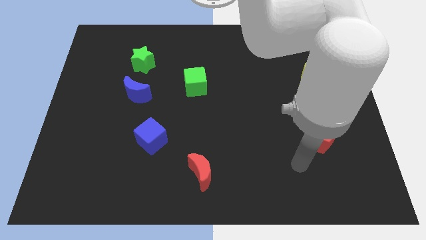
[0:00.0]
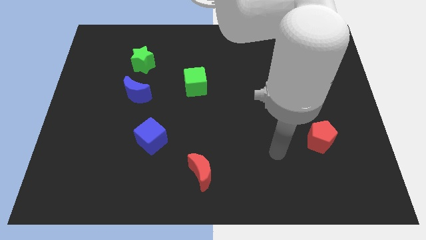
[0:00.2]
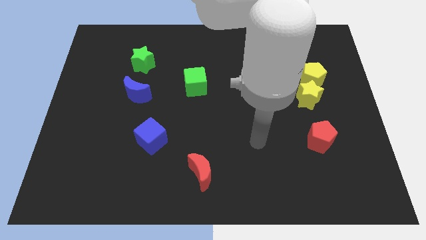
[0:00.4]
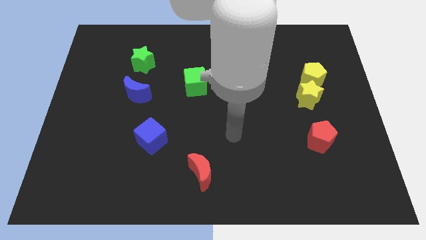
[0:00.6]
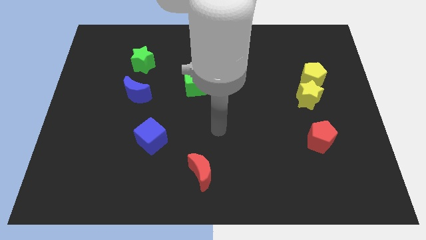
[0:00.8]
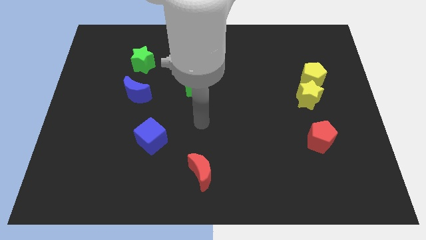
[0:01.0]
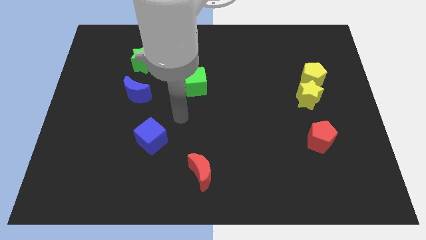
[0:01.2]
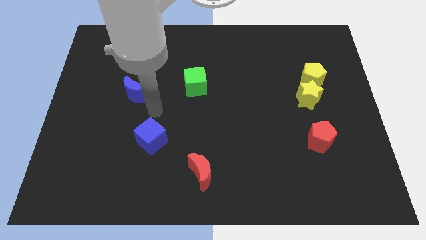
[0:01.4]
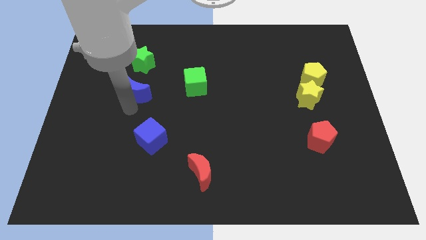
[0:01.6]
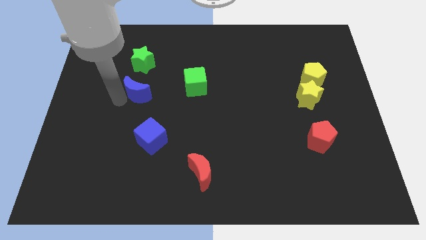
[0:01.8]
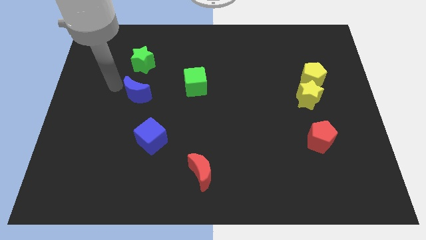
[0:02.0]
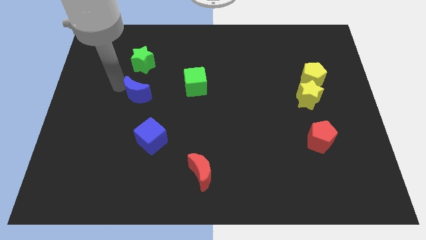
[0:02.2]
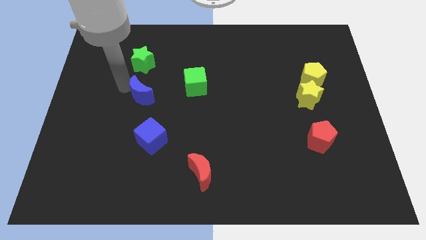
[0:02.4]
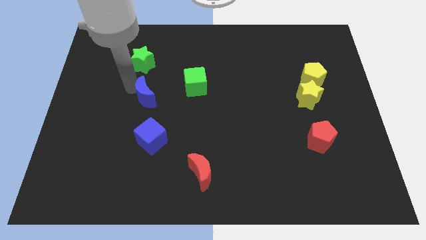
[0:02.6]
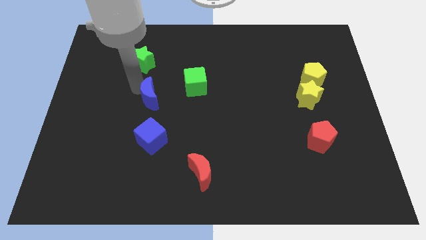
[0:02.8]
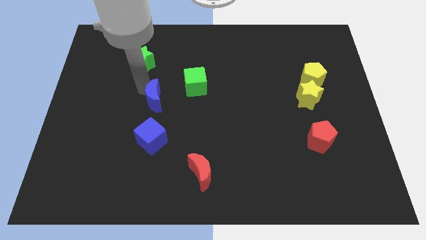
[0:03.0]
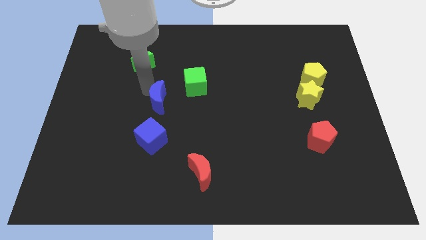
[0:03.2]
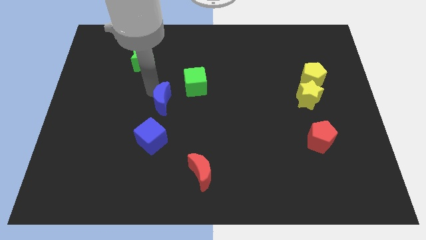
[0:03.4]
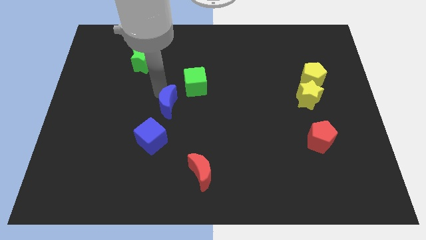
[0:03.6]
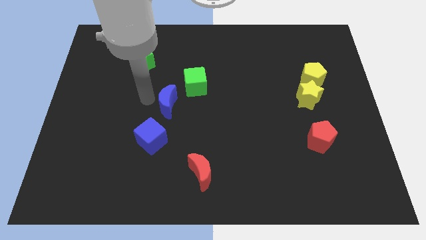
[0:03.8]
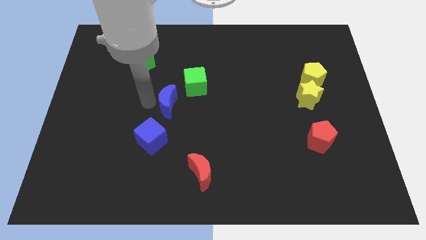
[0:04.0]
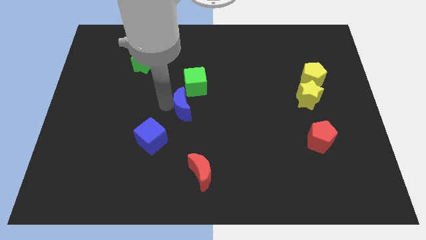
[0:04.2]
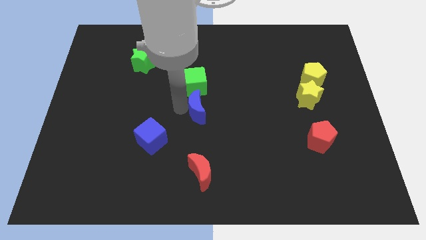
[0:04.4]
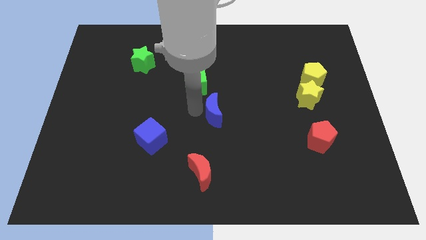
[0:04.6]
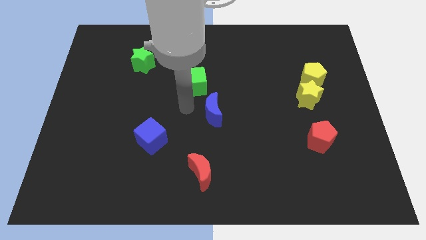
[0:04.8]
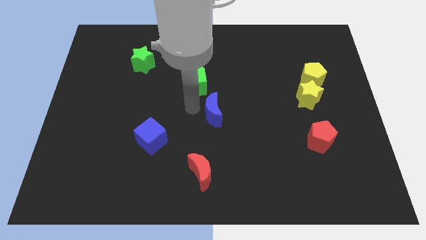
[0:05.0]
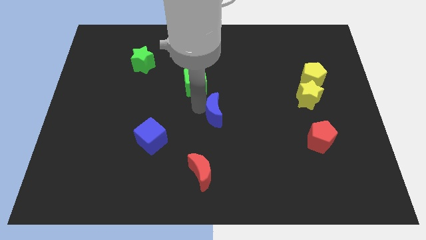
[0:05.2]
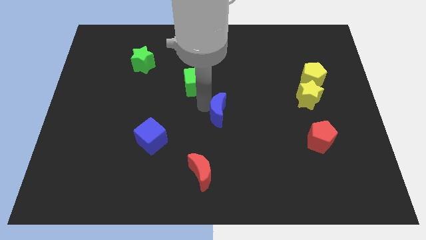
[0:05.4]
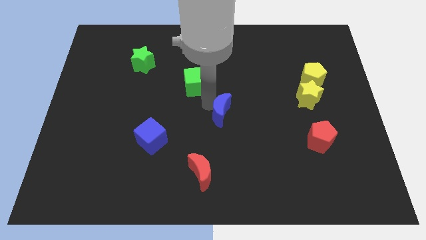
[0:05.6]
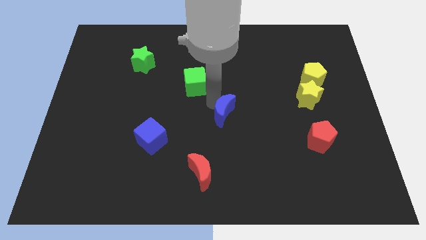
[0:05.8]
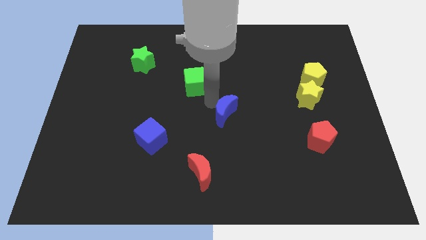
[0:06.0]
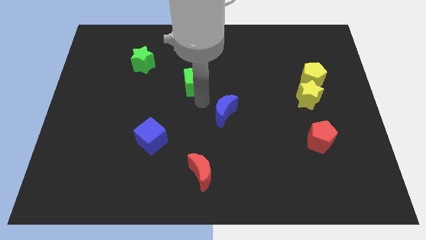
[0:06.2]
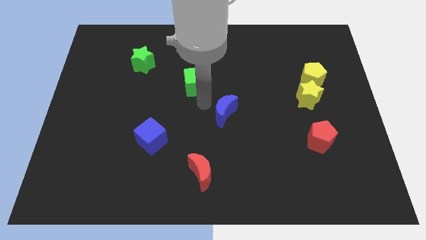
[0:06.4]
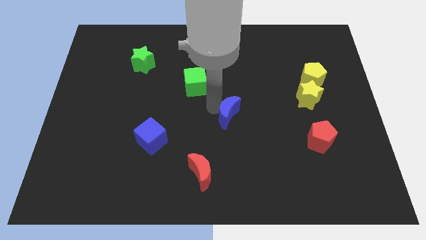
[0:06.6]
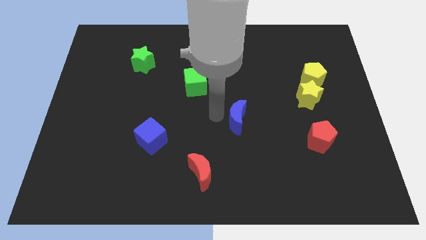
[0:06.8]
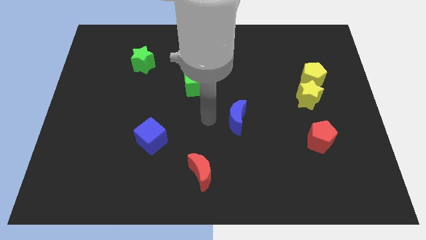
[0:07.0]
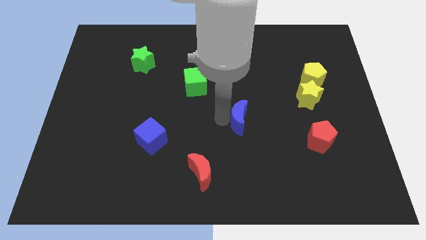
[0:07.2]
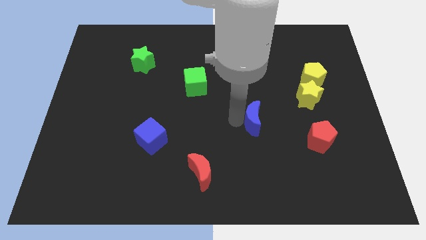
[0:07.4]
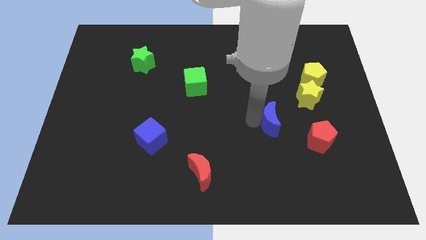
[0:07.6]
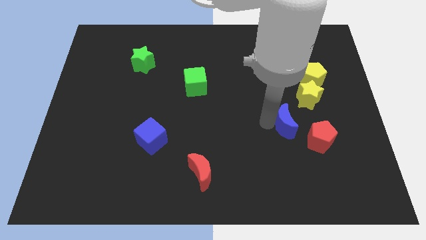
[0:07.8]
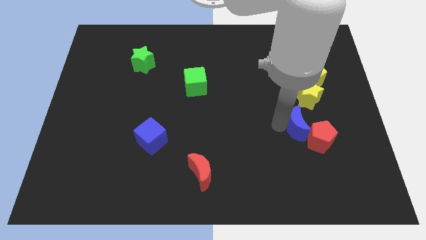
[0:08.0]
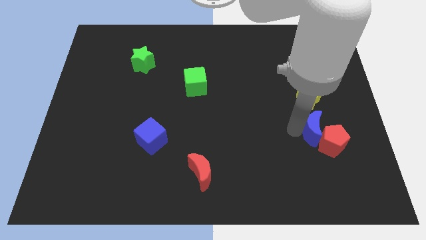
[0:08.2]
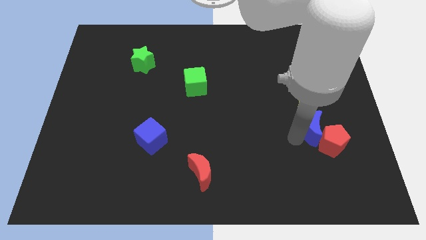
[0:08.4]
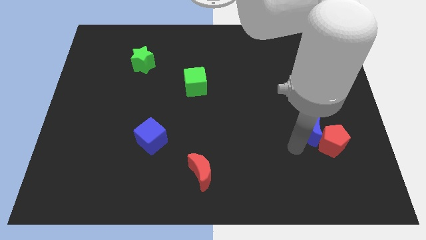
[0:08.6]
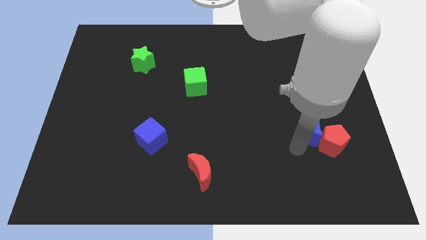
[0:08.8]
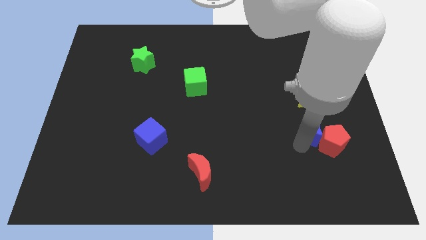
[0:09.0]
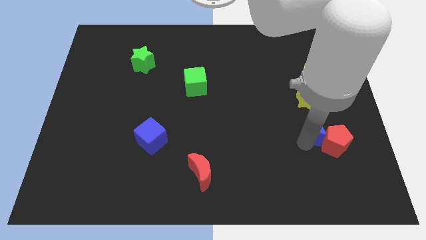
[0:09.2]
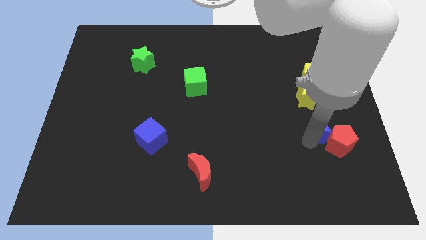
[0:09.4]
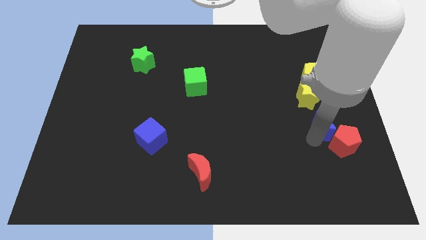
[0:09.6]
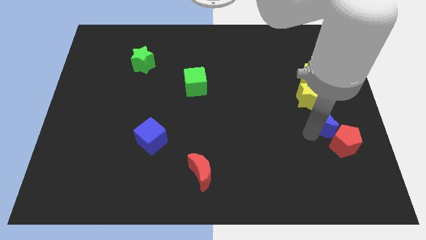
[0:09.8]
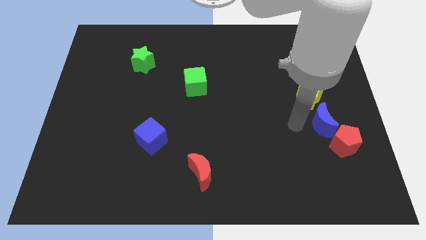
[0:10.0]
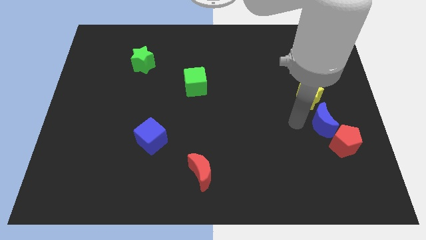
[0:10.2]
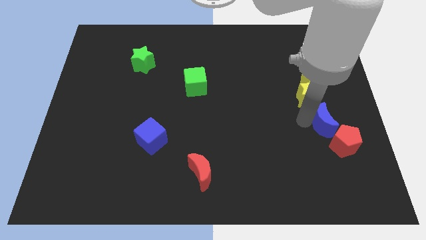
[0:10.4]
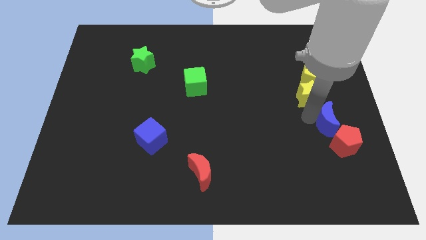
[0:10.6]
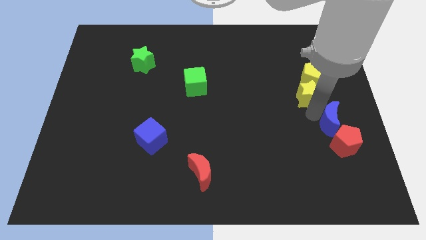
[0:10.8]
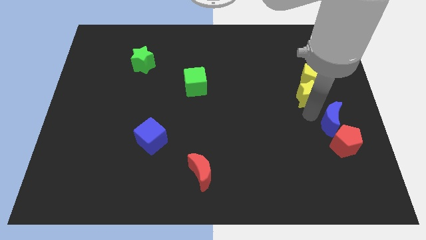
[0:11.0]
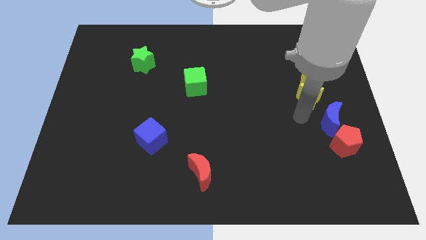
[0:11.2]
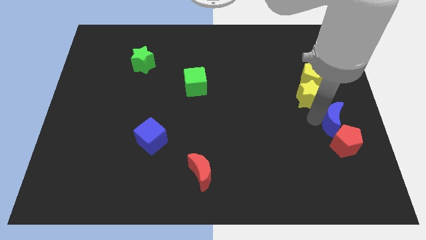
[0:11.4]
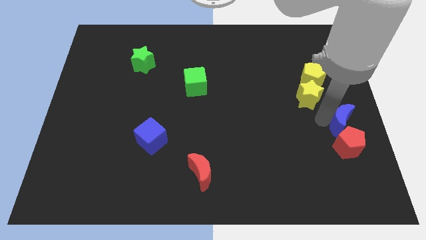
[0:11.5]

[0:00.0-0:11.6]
move the blue moon to the top right of the red pentagon

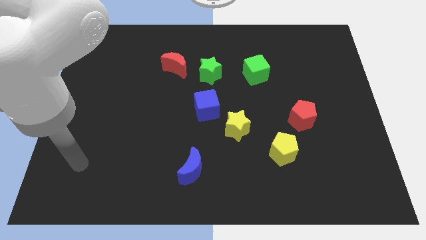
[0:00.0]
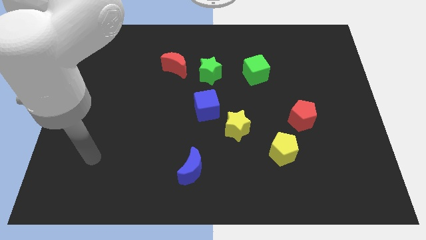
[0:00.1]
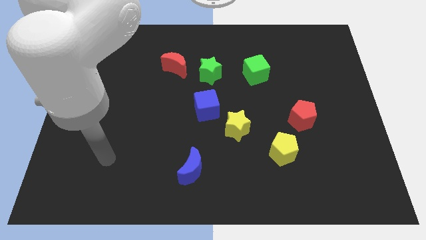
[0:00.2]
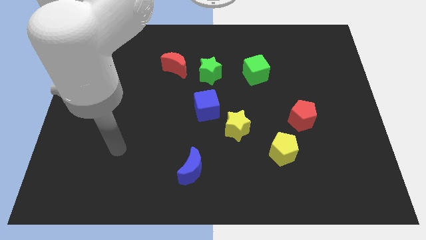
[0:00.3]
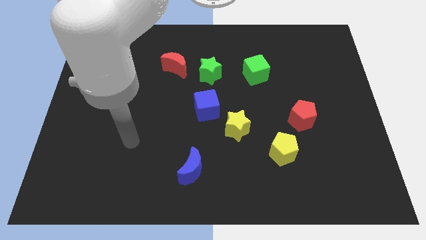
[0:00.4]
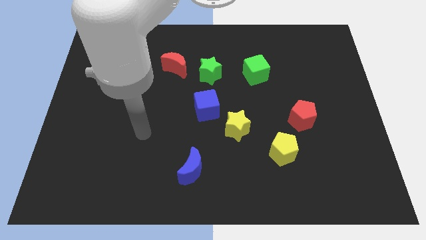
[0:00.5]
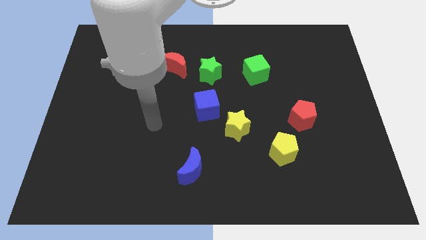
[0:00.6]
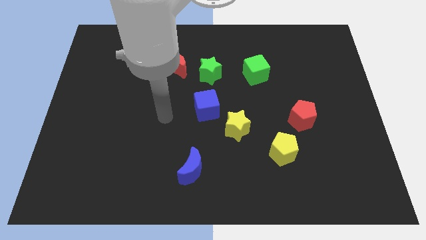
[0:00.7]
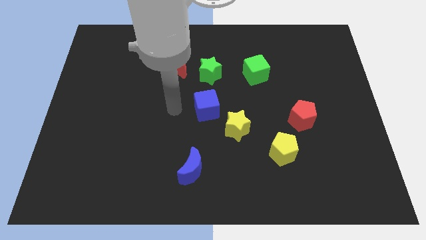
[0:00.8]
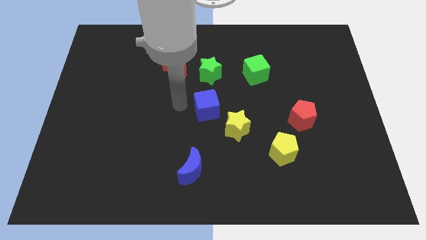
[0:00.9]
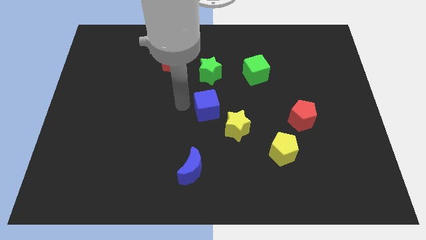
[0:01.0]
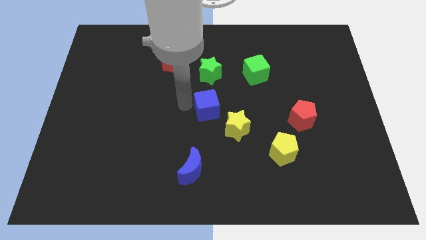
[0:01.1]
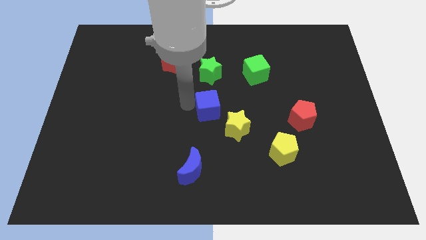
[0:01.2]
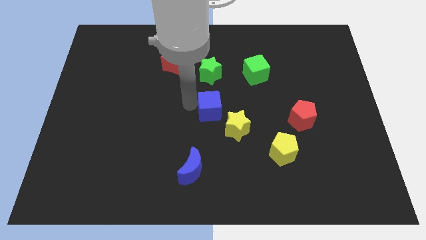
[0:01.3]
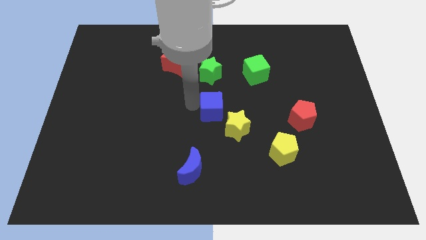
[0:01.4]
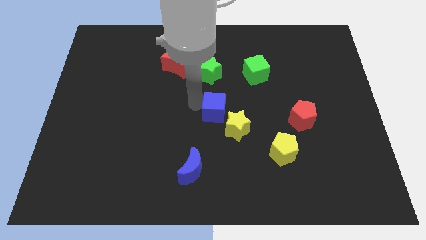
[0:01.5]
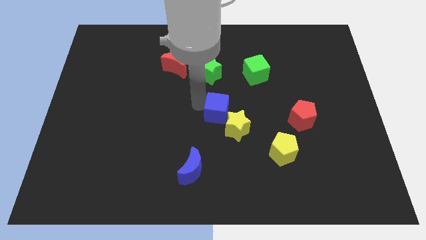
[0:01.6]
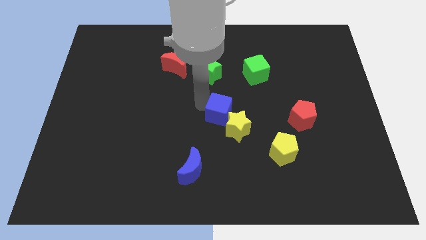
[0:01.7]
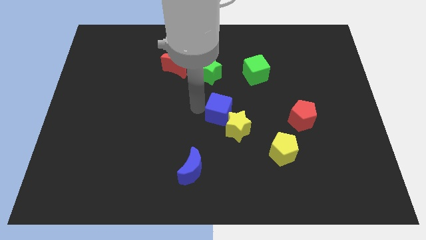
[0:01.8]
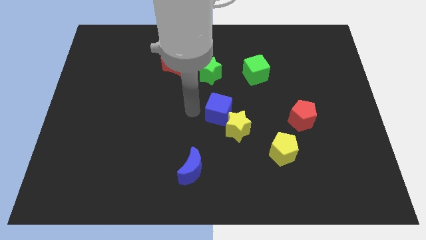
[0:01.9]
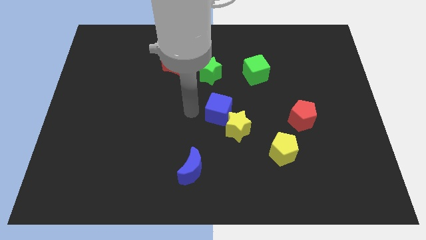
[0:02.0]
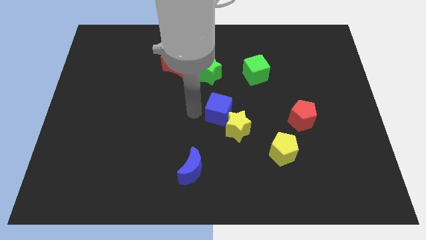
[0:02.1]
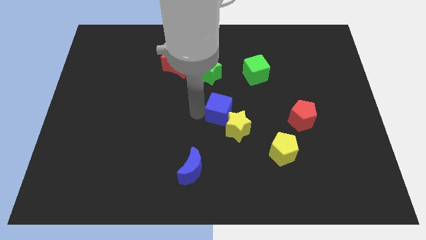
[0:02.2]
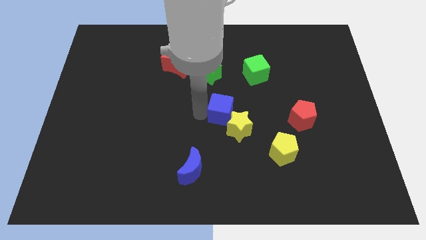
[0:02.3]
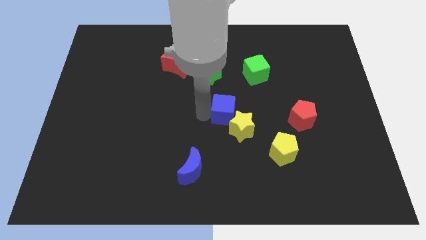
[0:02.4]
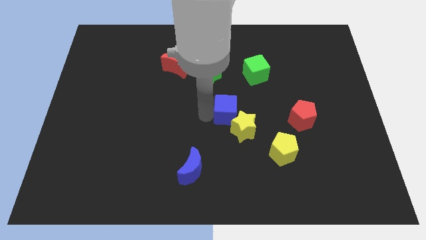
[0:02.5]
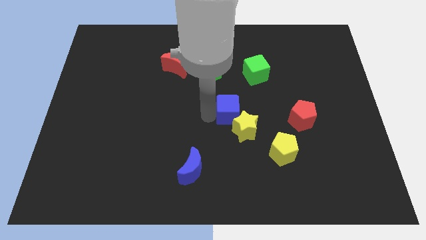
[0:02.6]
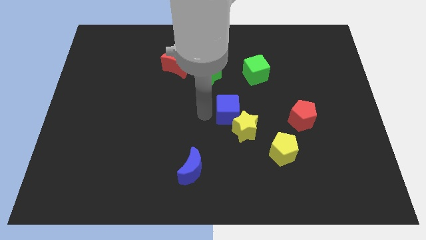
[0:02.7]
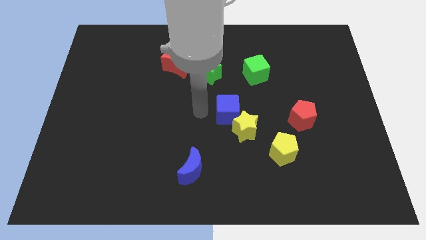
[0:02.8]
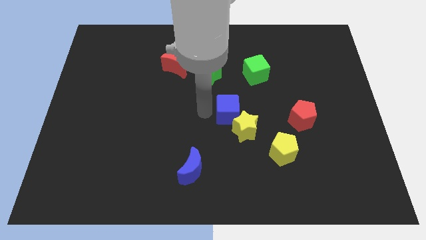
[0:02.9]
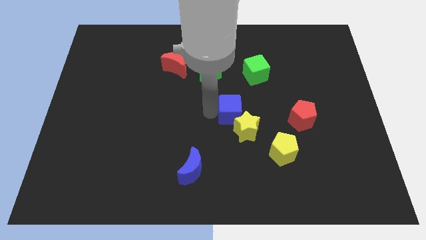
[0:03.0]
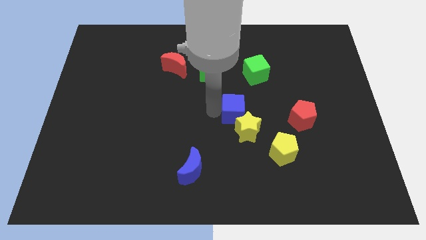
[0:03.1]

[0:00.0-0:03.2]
move the blue cube just left of the red pentagon
